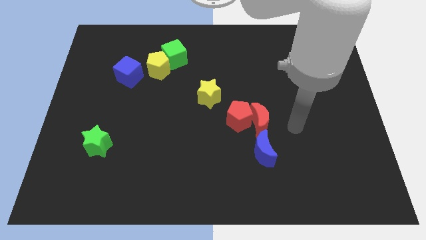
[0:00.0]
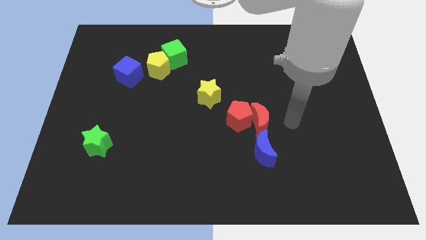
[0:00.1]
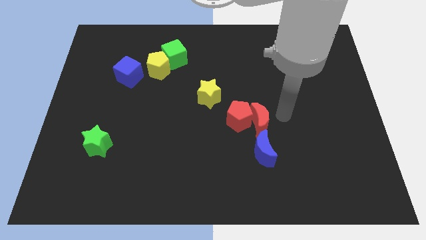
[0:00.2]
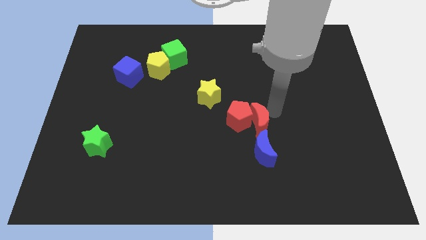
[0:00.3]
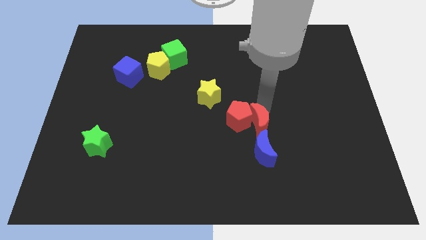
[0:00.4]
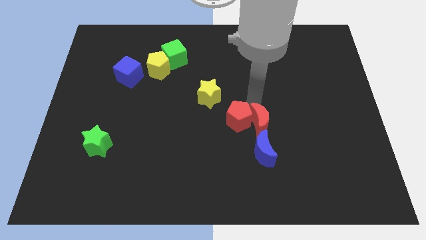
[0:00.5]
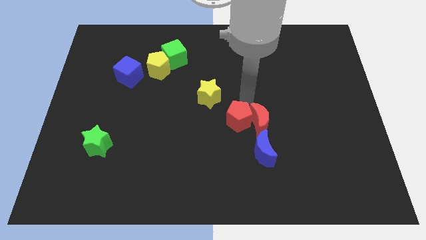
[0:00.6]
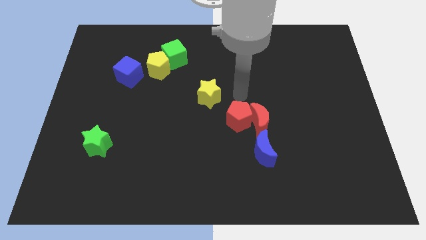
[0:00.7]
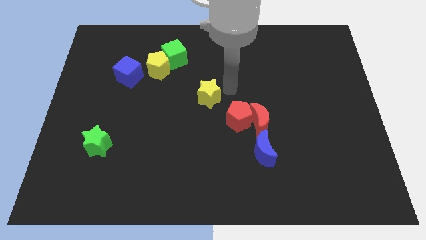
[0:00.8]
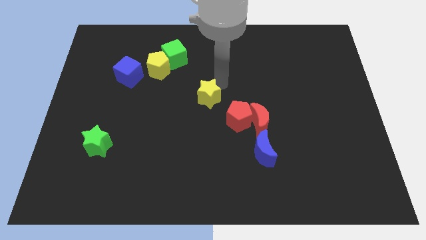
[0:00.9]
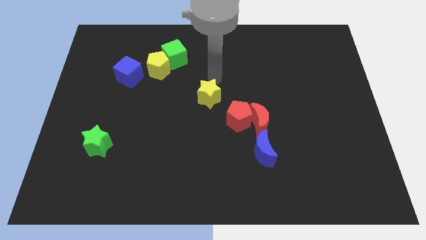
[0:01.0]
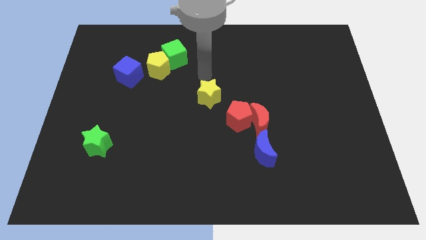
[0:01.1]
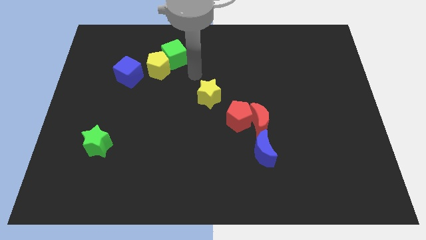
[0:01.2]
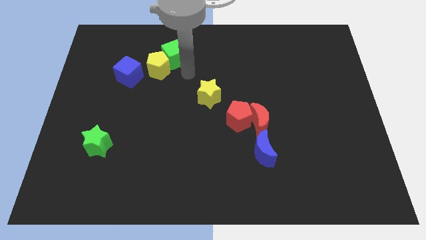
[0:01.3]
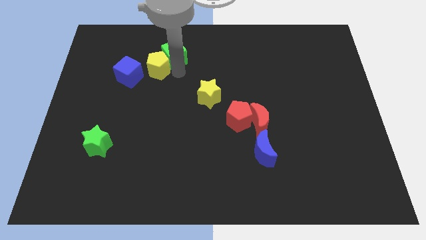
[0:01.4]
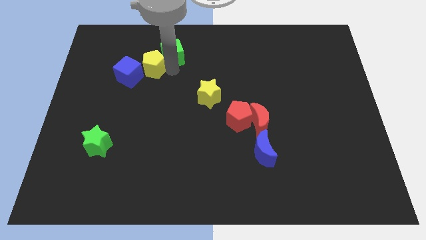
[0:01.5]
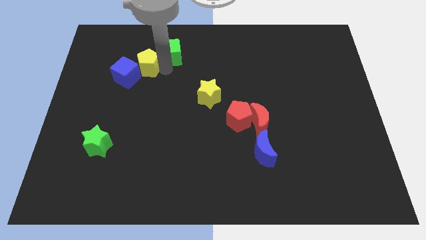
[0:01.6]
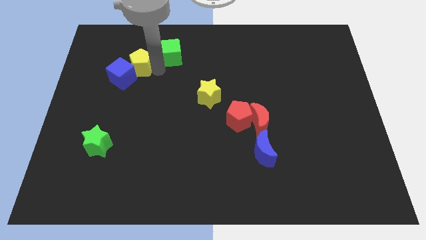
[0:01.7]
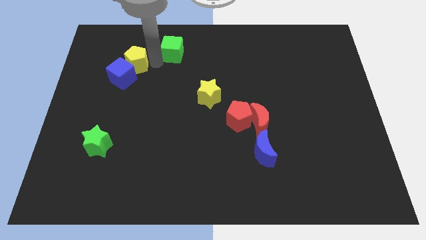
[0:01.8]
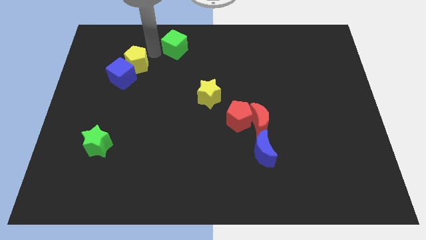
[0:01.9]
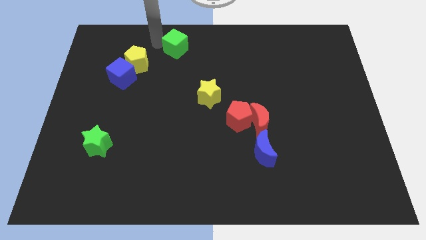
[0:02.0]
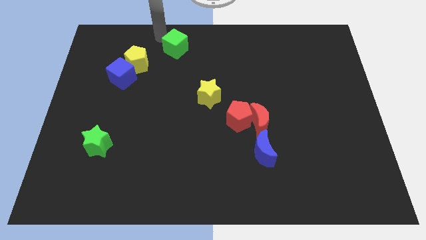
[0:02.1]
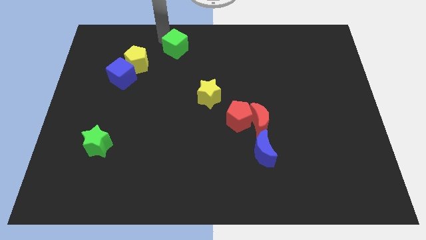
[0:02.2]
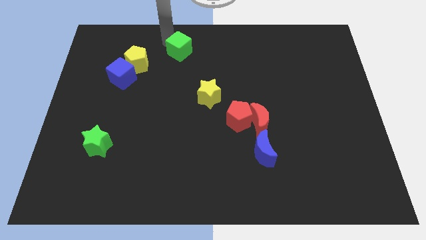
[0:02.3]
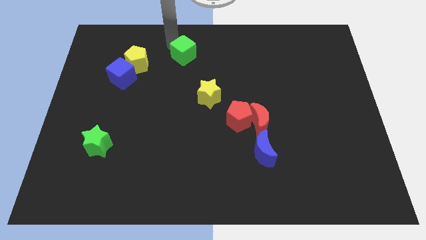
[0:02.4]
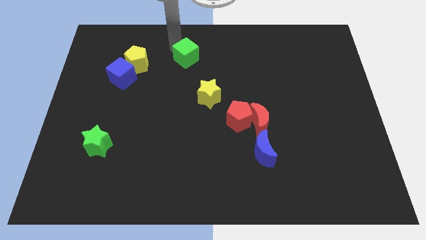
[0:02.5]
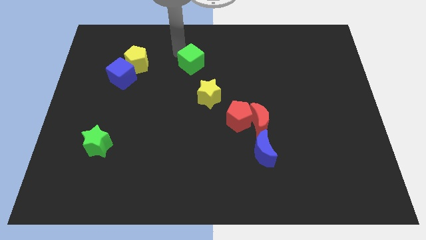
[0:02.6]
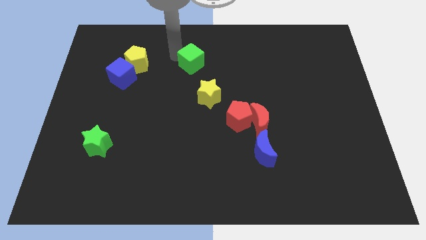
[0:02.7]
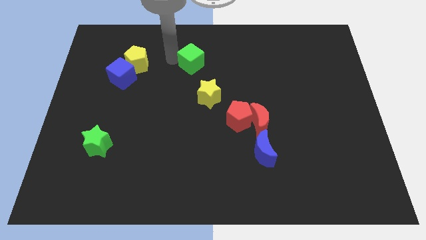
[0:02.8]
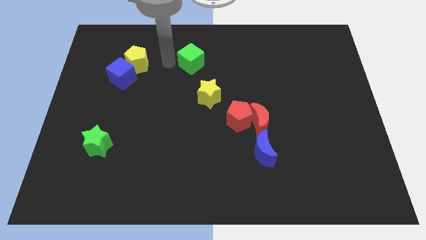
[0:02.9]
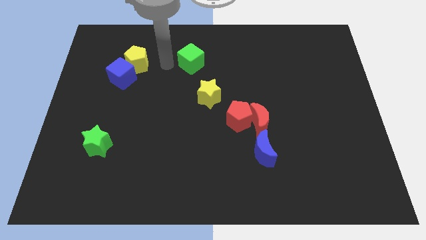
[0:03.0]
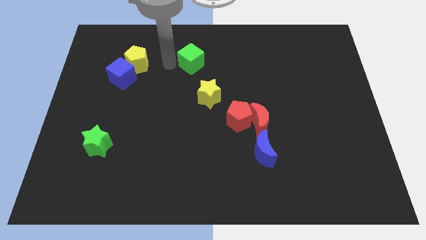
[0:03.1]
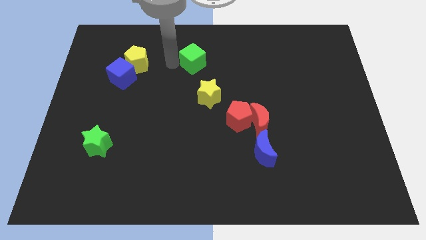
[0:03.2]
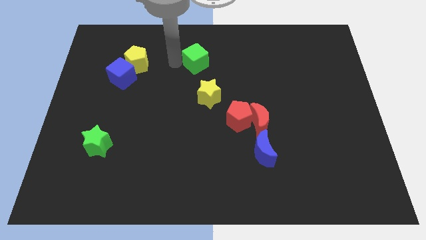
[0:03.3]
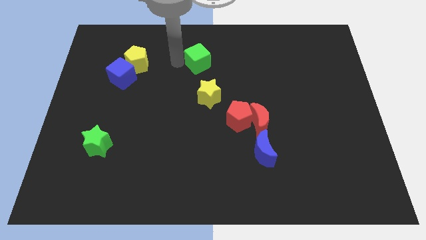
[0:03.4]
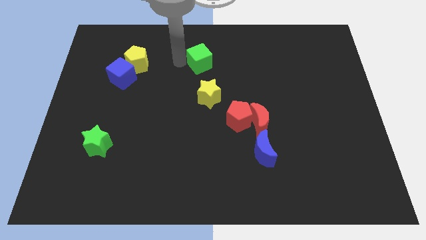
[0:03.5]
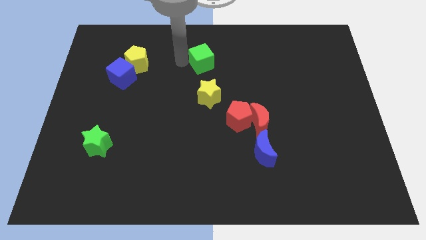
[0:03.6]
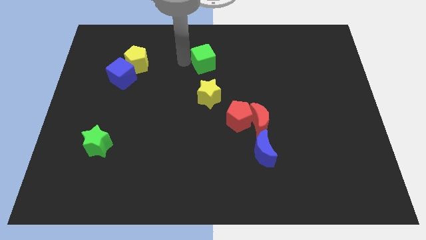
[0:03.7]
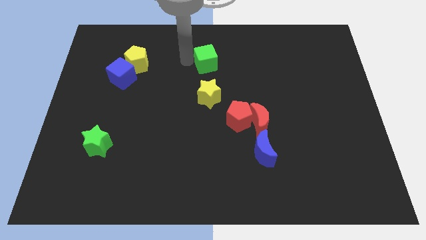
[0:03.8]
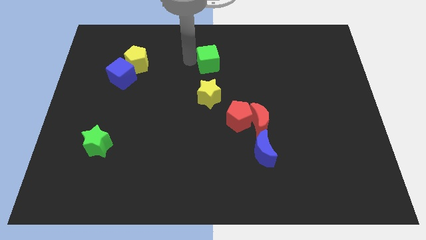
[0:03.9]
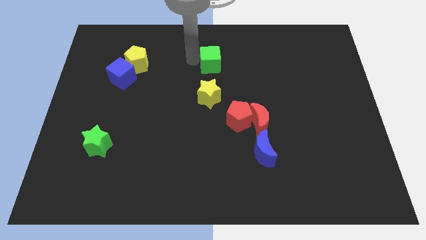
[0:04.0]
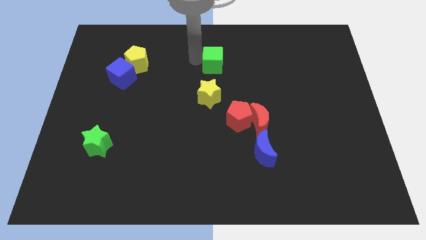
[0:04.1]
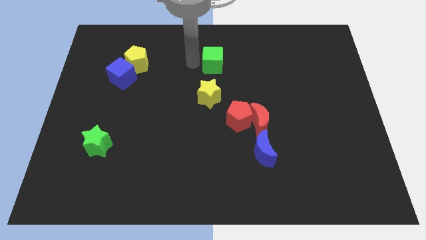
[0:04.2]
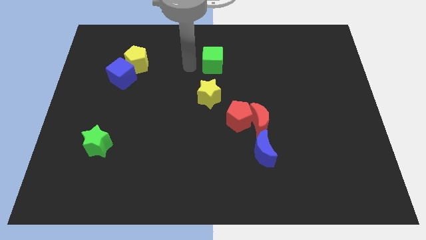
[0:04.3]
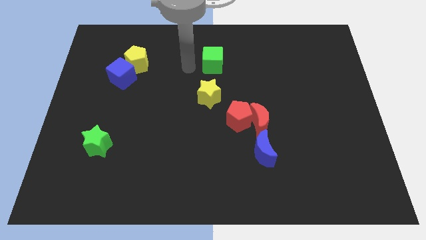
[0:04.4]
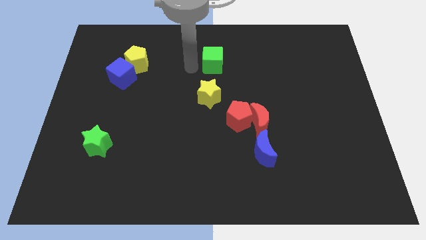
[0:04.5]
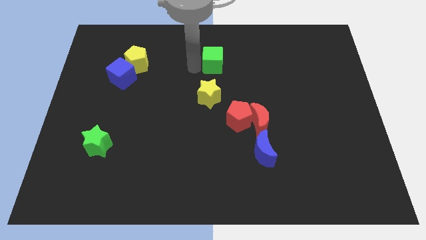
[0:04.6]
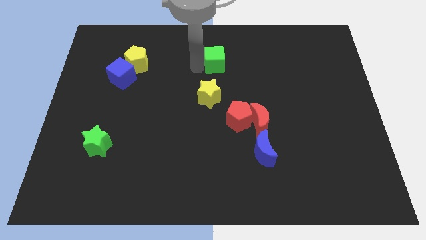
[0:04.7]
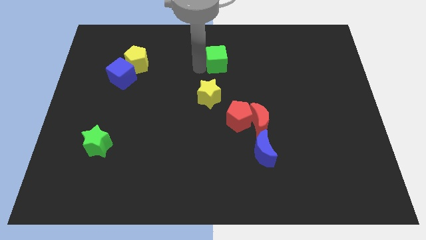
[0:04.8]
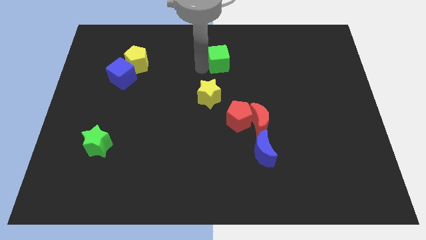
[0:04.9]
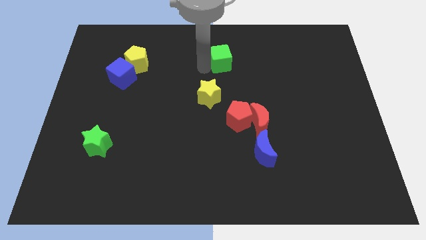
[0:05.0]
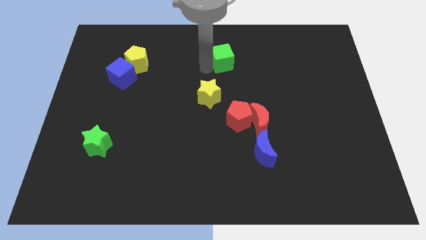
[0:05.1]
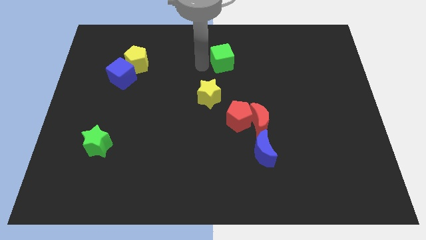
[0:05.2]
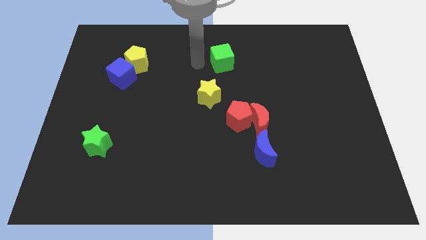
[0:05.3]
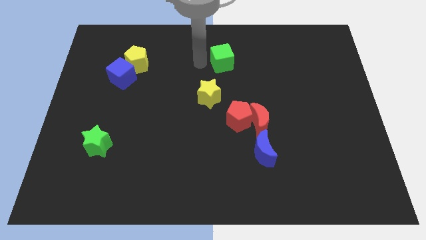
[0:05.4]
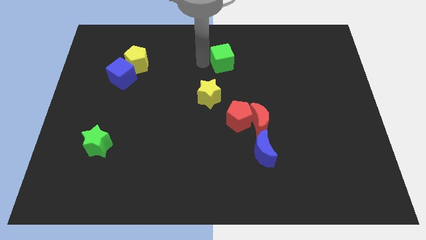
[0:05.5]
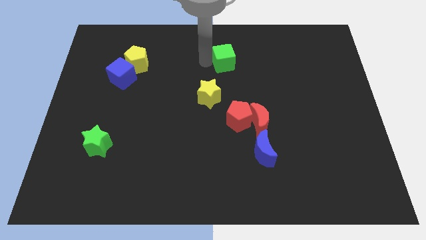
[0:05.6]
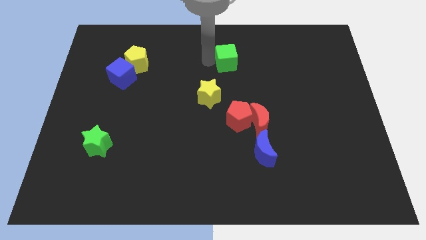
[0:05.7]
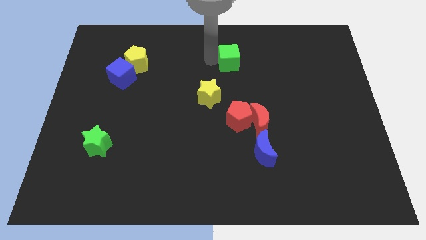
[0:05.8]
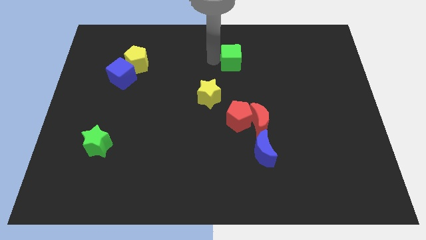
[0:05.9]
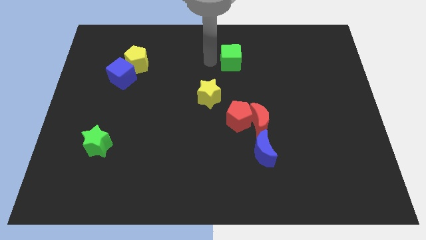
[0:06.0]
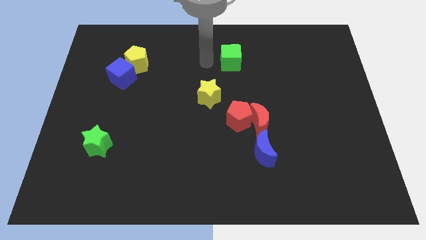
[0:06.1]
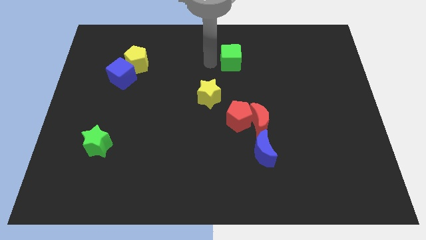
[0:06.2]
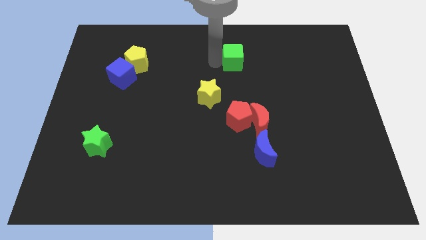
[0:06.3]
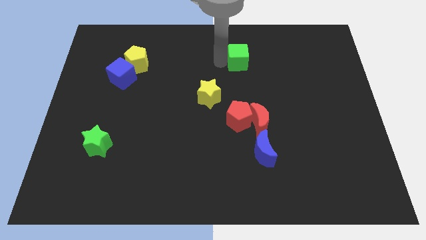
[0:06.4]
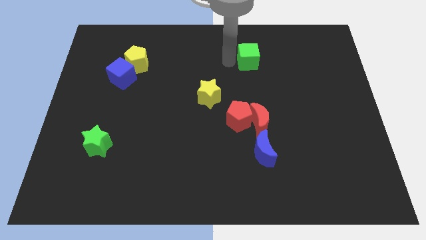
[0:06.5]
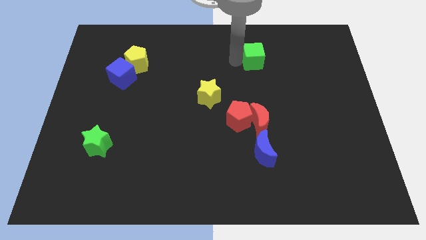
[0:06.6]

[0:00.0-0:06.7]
move the green cube right

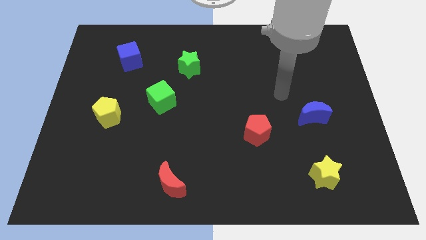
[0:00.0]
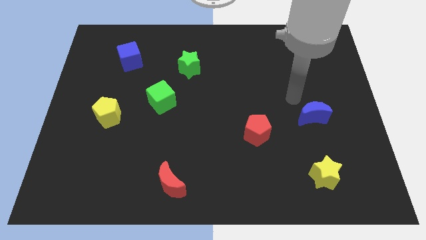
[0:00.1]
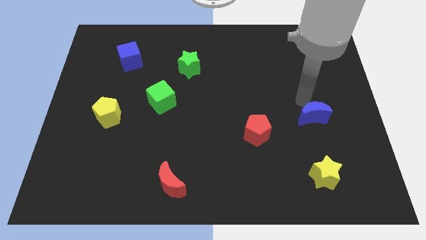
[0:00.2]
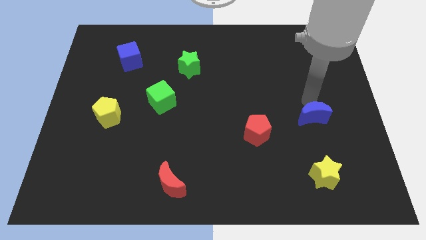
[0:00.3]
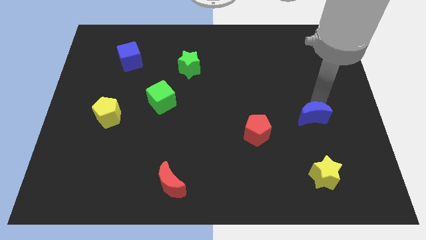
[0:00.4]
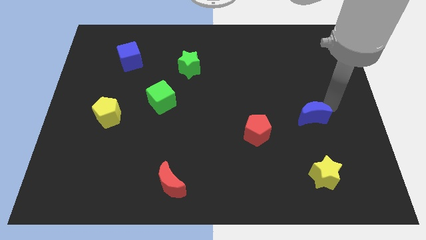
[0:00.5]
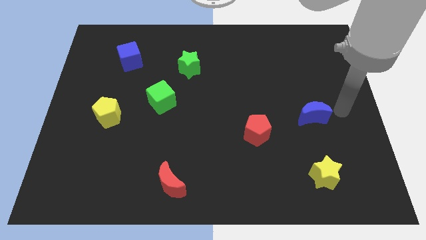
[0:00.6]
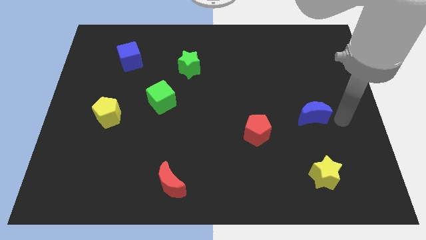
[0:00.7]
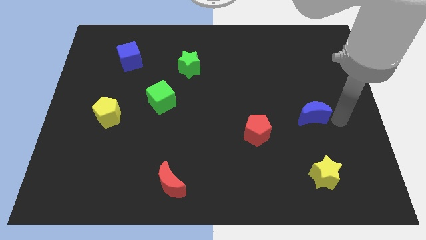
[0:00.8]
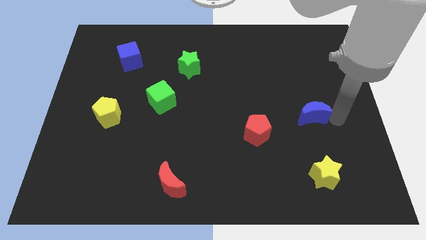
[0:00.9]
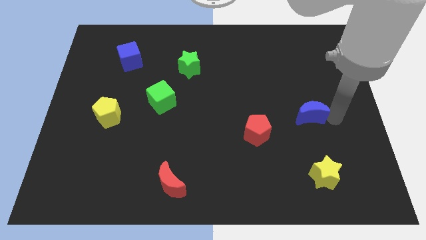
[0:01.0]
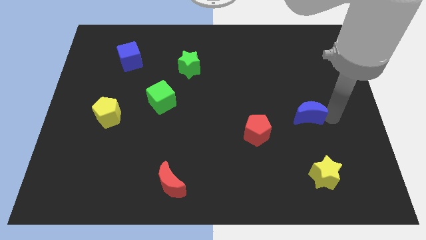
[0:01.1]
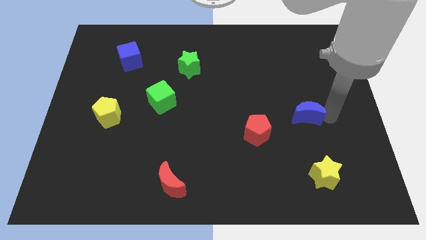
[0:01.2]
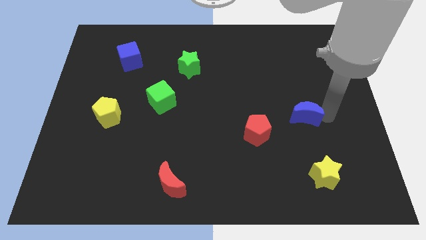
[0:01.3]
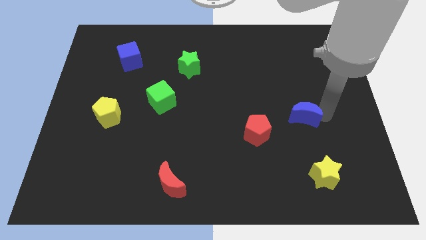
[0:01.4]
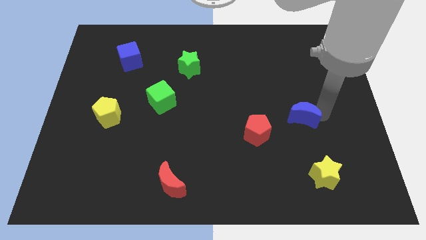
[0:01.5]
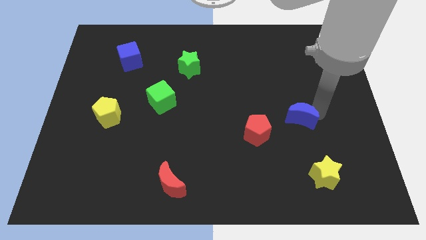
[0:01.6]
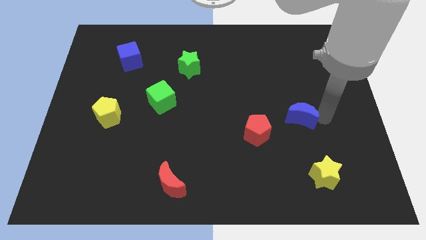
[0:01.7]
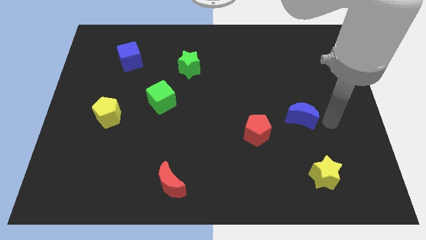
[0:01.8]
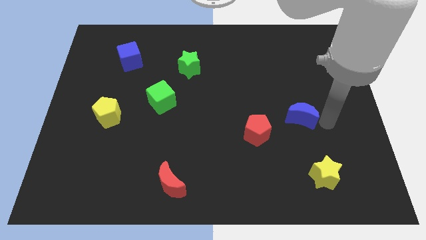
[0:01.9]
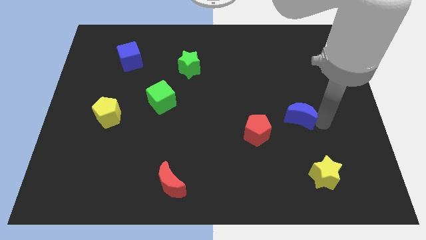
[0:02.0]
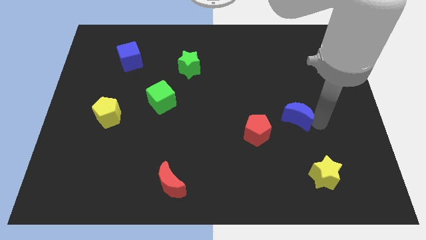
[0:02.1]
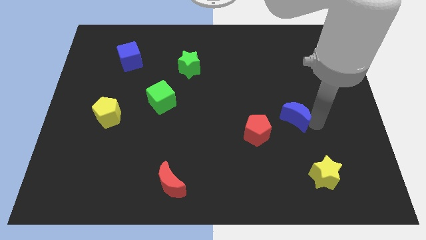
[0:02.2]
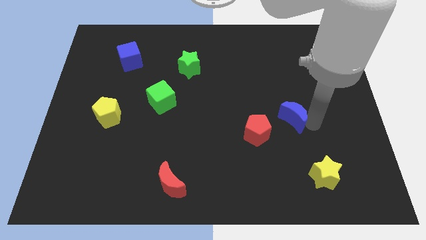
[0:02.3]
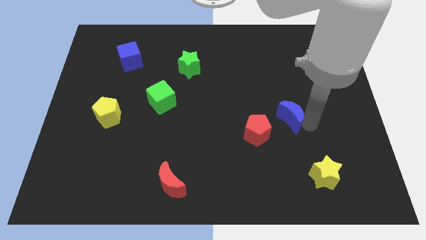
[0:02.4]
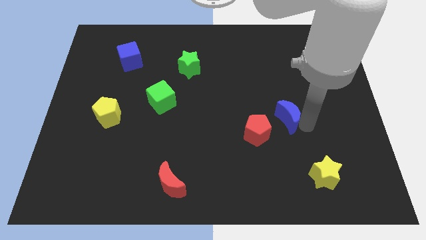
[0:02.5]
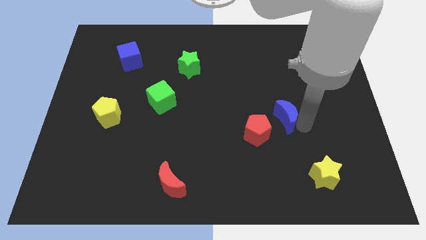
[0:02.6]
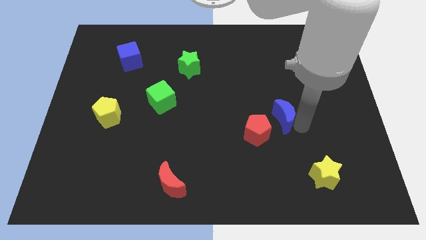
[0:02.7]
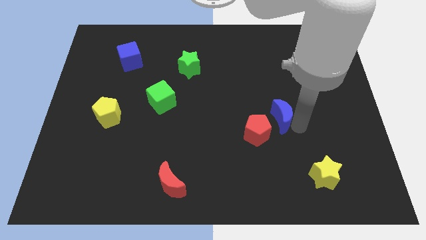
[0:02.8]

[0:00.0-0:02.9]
slightly move the blue moon to the left
